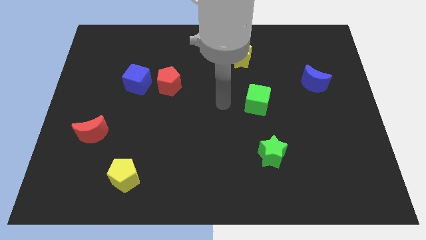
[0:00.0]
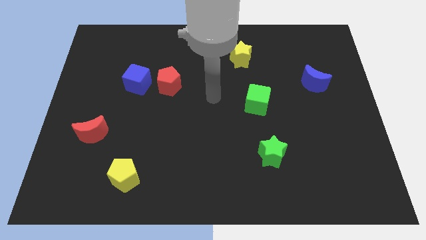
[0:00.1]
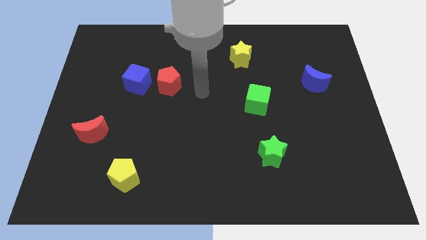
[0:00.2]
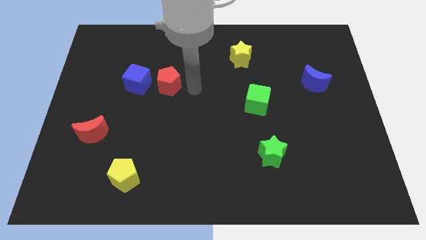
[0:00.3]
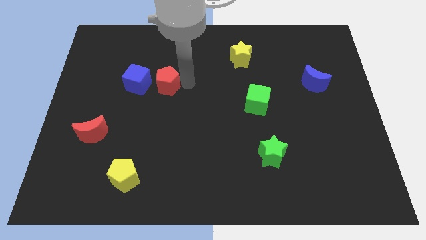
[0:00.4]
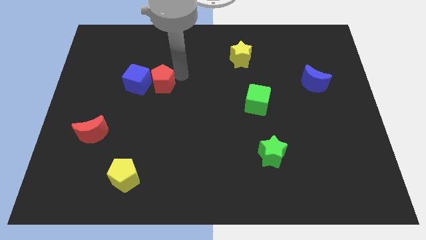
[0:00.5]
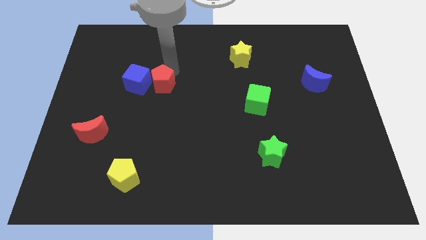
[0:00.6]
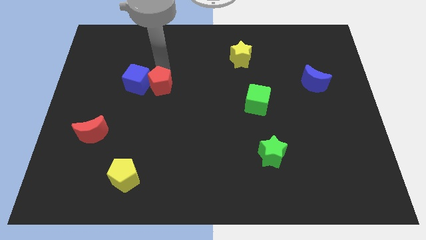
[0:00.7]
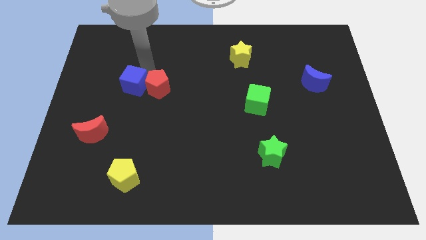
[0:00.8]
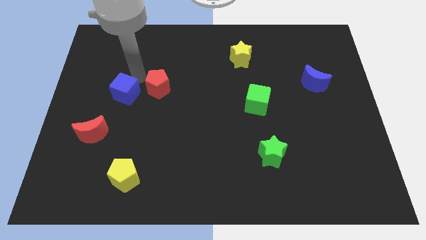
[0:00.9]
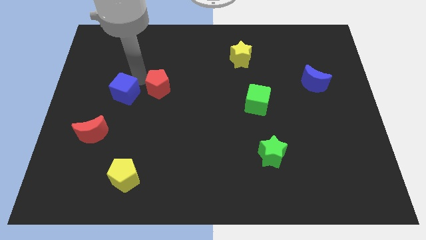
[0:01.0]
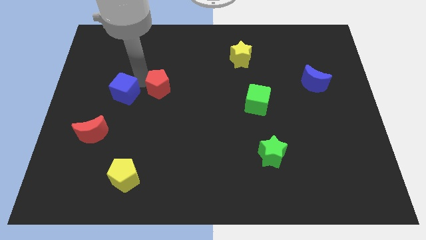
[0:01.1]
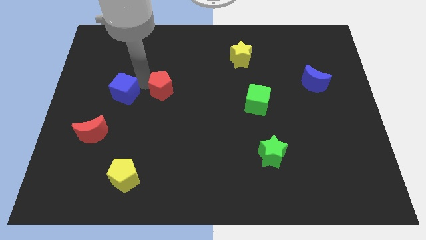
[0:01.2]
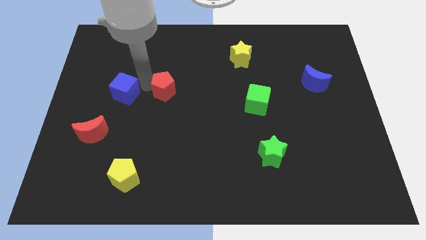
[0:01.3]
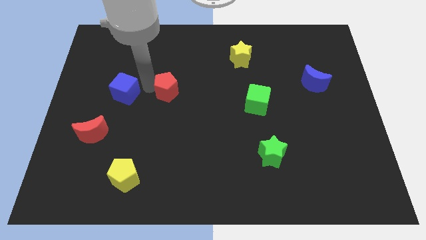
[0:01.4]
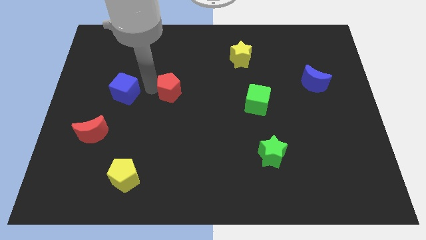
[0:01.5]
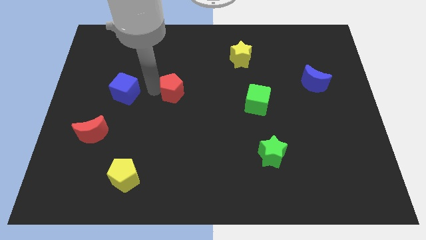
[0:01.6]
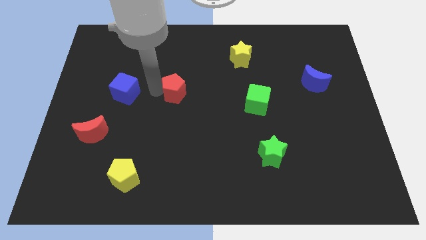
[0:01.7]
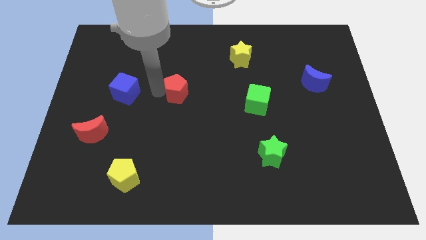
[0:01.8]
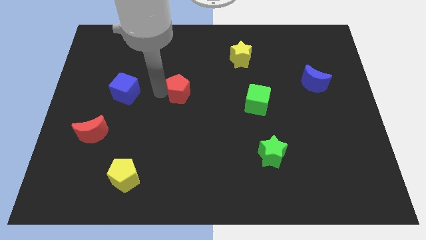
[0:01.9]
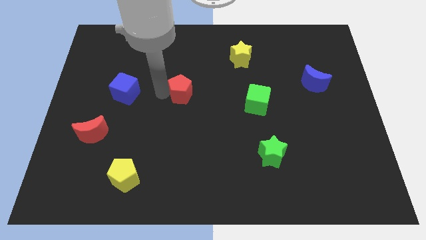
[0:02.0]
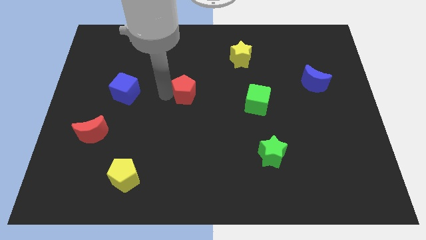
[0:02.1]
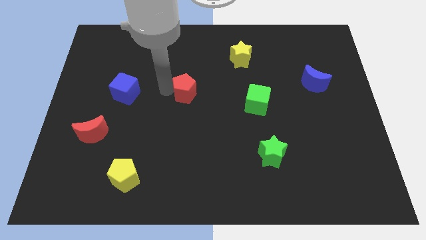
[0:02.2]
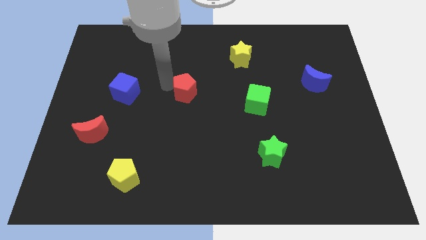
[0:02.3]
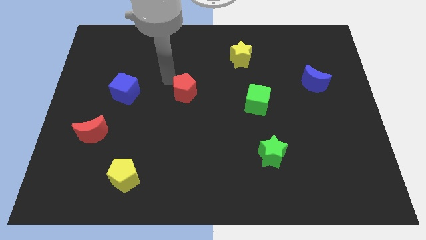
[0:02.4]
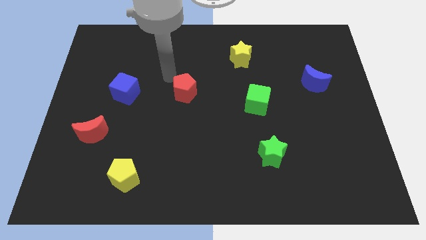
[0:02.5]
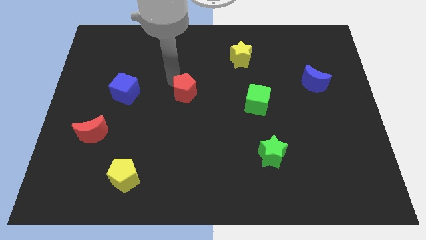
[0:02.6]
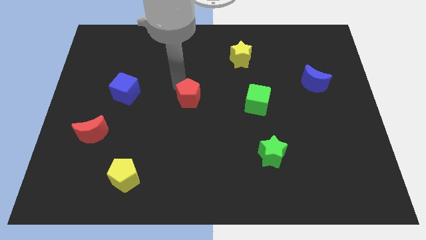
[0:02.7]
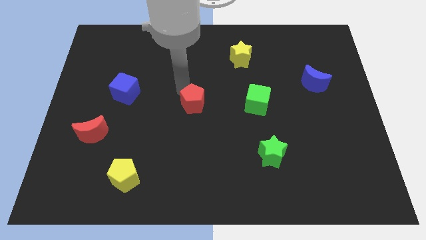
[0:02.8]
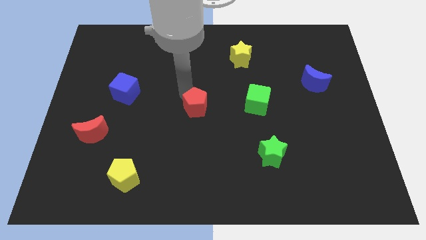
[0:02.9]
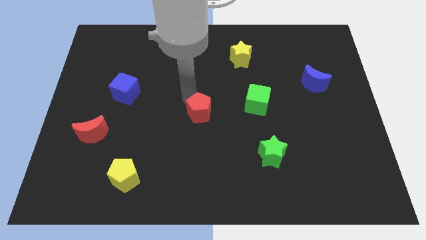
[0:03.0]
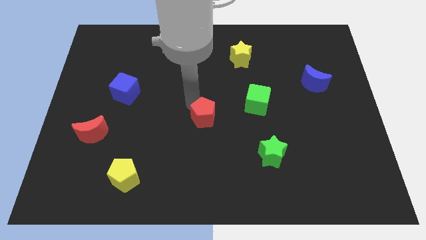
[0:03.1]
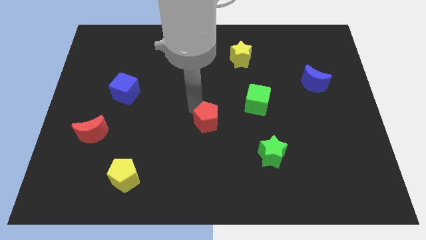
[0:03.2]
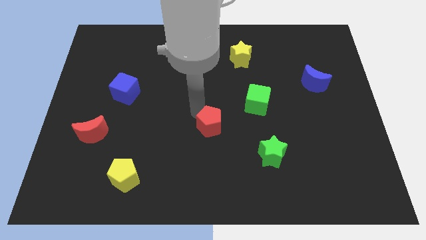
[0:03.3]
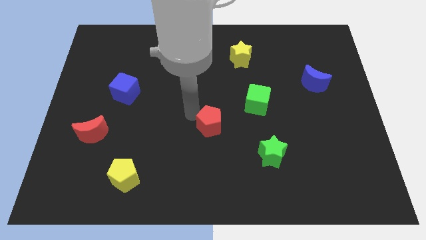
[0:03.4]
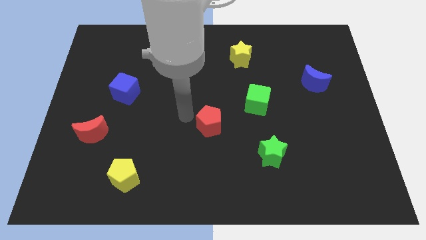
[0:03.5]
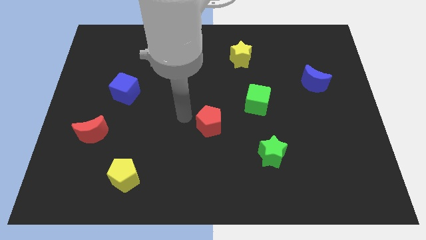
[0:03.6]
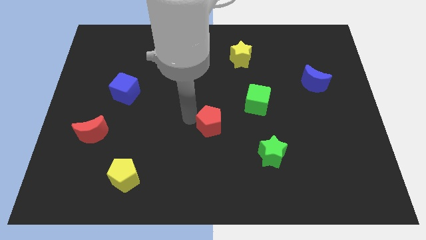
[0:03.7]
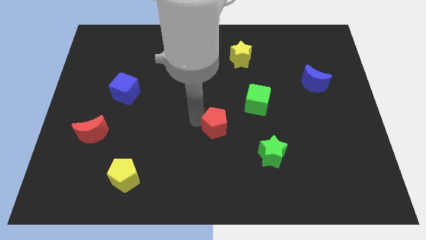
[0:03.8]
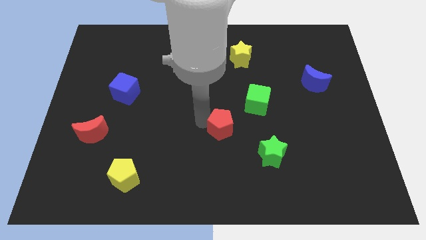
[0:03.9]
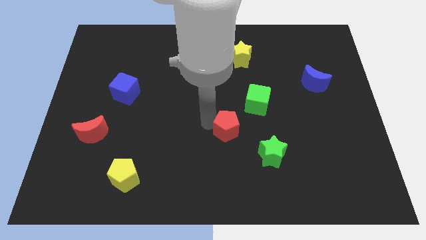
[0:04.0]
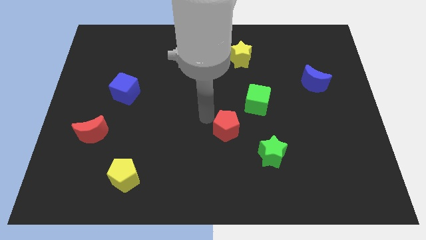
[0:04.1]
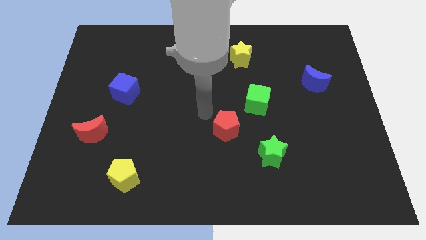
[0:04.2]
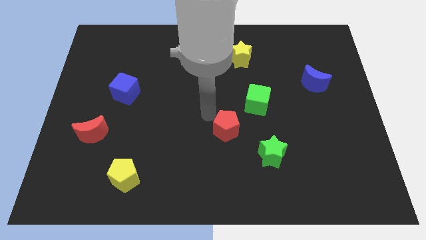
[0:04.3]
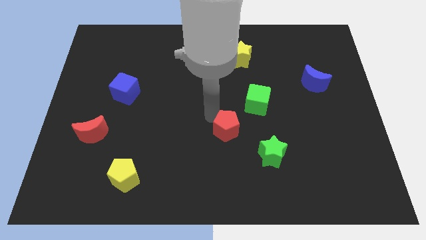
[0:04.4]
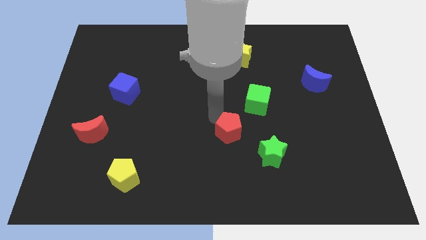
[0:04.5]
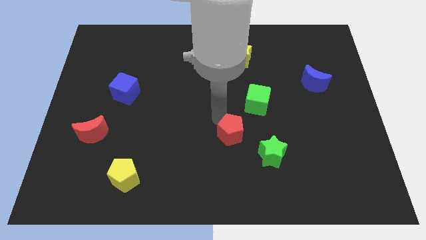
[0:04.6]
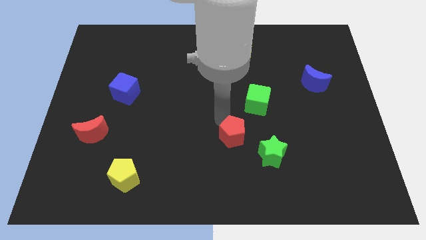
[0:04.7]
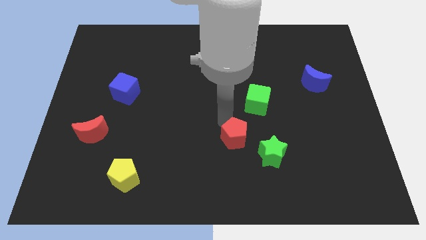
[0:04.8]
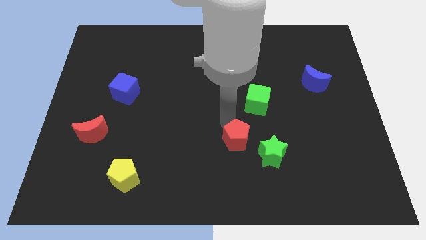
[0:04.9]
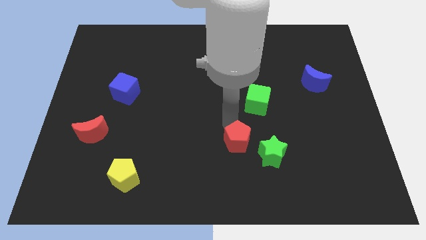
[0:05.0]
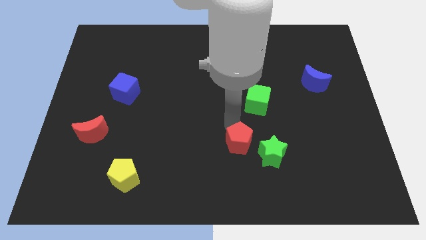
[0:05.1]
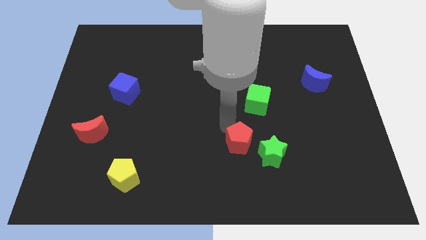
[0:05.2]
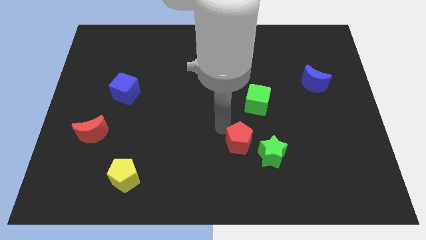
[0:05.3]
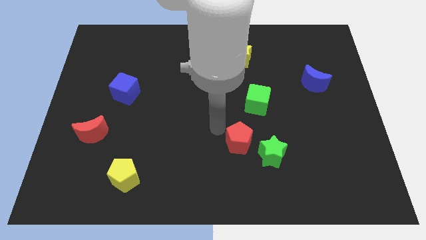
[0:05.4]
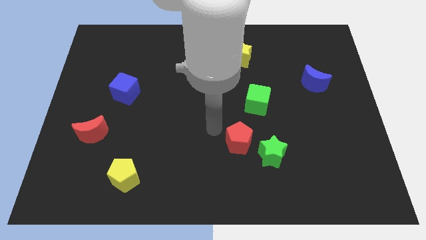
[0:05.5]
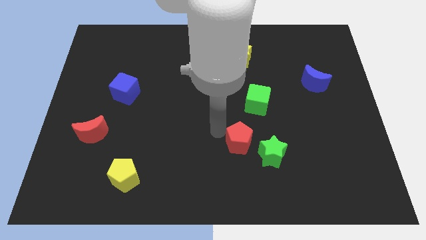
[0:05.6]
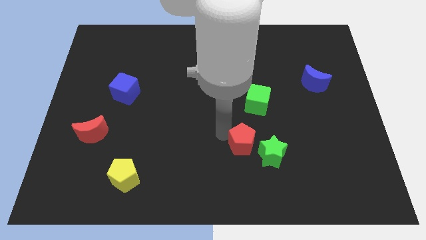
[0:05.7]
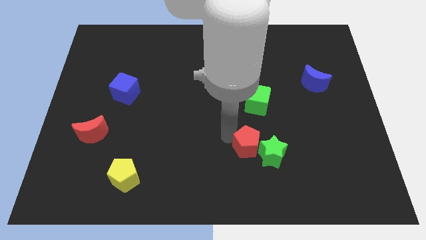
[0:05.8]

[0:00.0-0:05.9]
move the red pentagon towards the green star

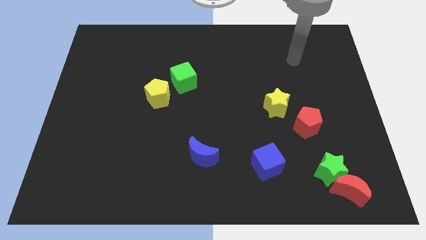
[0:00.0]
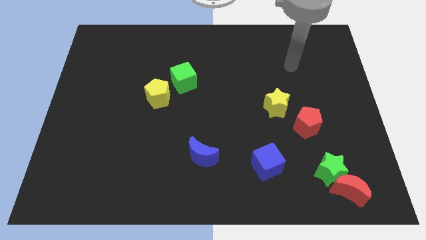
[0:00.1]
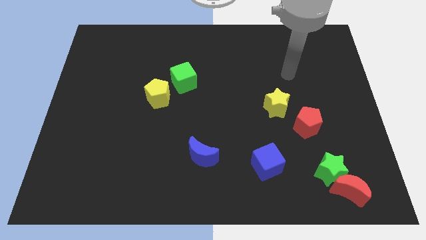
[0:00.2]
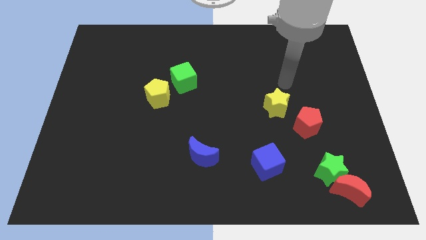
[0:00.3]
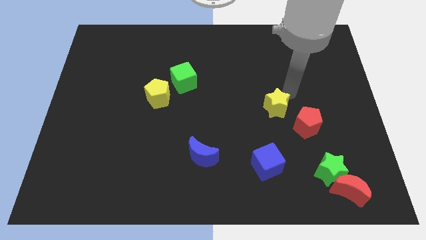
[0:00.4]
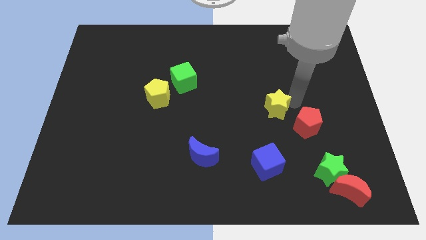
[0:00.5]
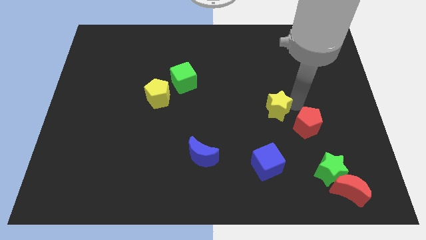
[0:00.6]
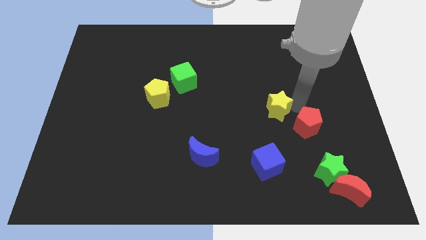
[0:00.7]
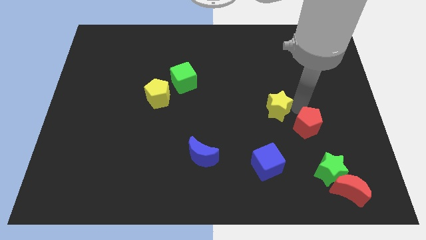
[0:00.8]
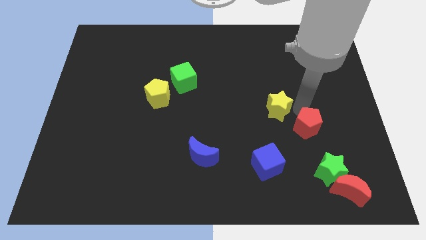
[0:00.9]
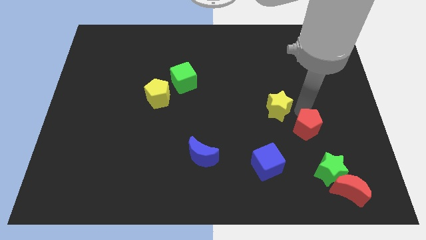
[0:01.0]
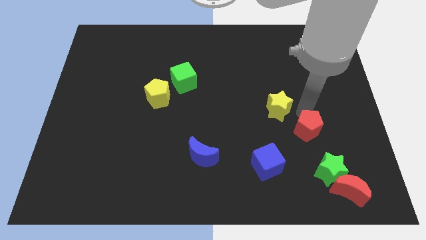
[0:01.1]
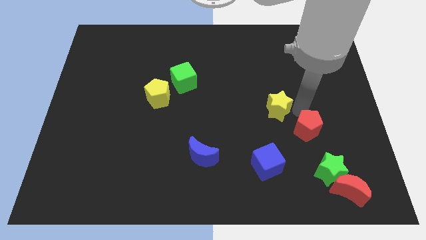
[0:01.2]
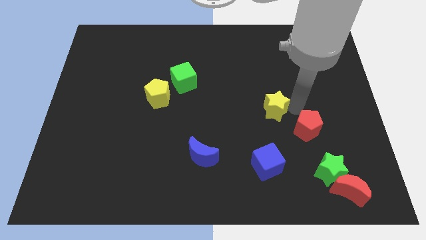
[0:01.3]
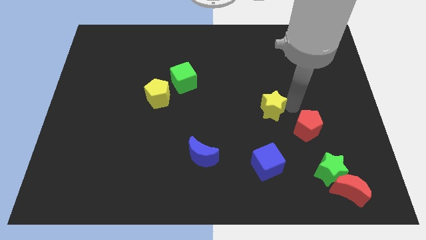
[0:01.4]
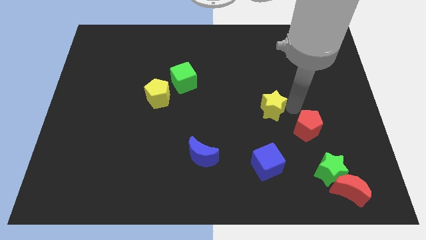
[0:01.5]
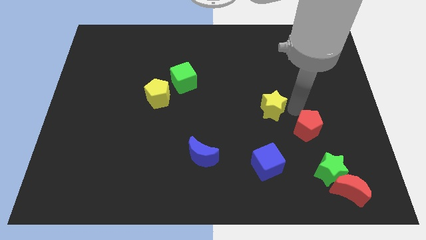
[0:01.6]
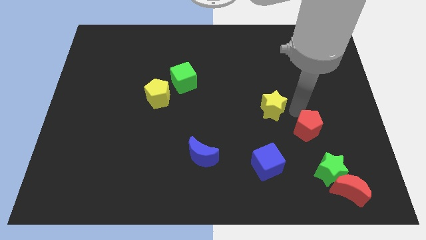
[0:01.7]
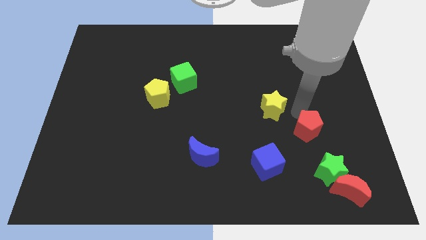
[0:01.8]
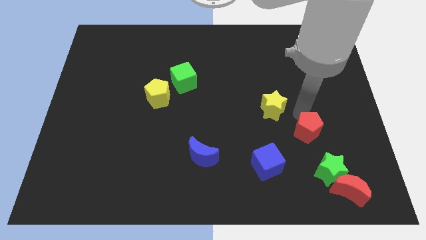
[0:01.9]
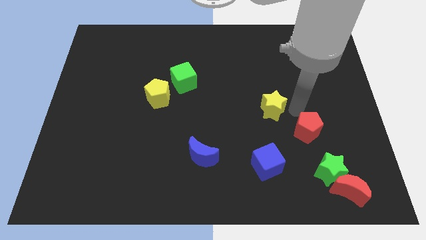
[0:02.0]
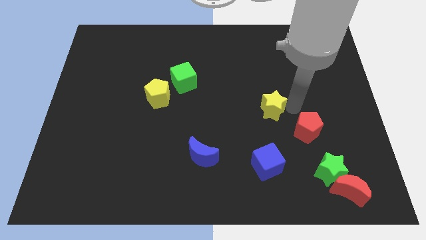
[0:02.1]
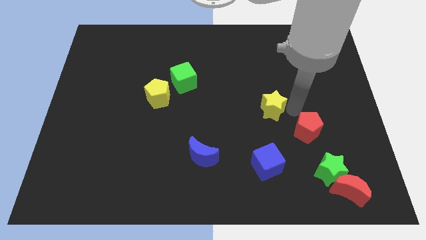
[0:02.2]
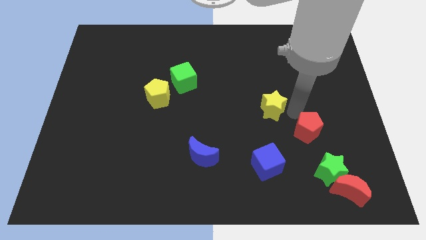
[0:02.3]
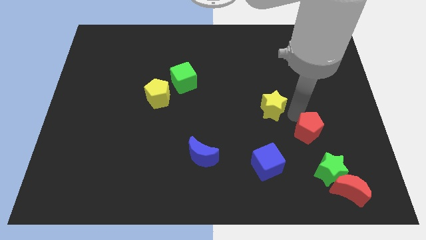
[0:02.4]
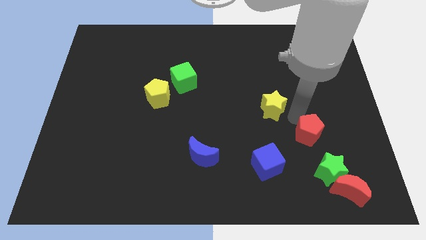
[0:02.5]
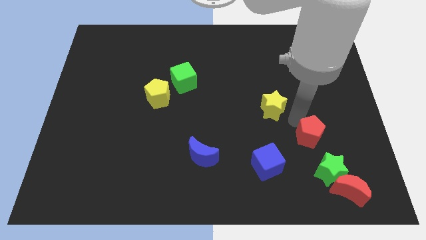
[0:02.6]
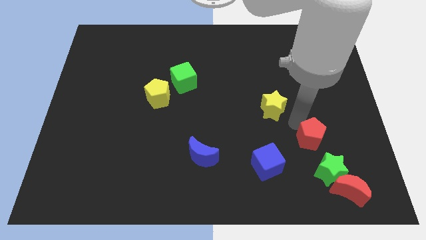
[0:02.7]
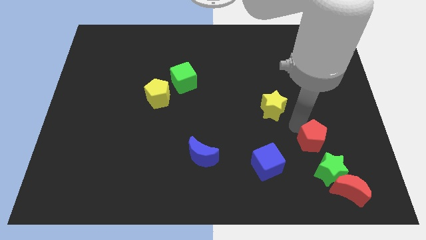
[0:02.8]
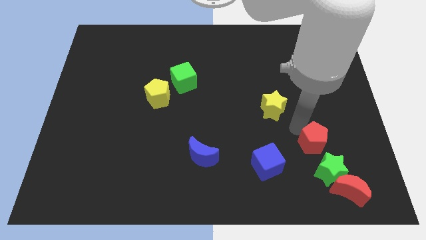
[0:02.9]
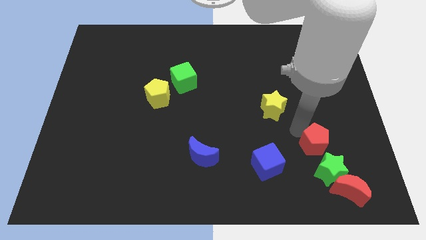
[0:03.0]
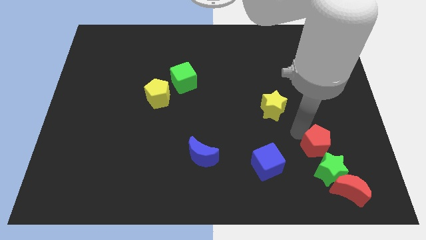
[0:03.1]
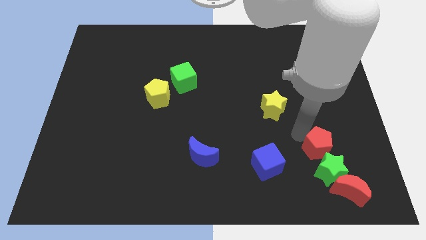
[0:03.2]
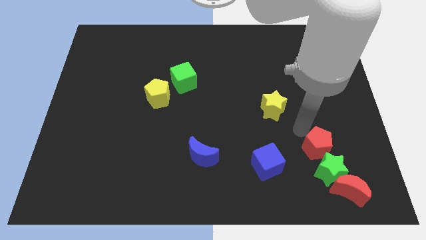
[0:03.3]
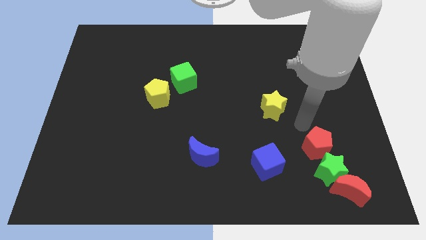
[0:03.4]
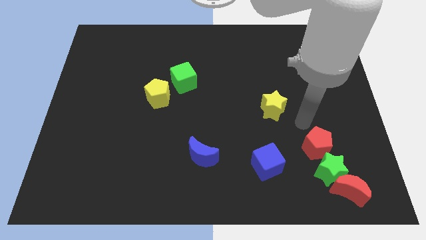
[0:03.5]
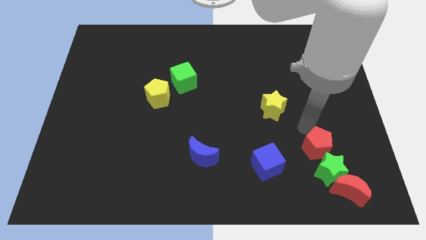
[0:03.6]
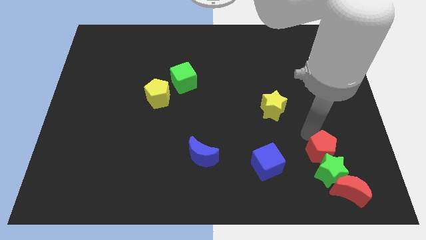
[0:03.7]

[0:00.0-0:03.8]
slide the red pentagon towards the green star
